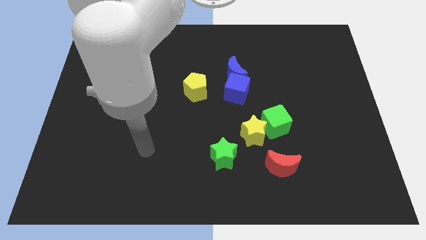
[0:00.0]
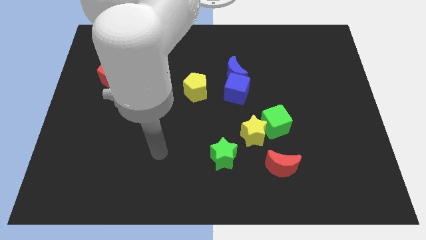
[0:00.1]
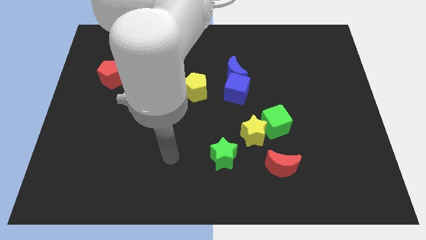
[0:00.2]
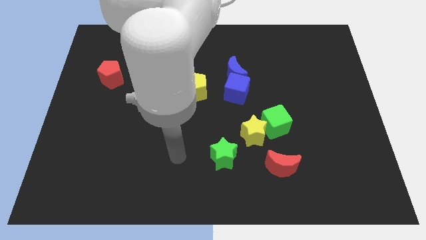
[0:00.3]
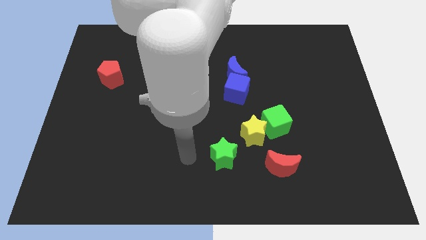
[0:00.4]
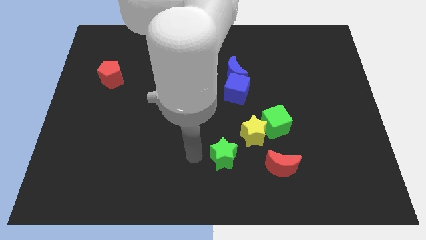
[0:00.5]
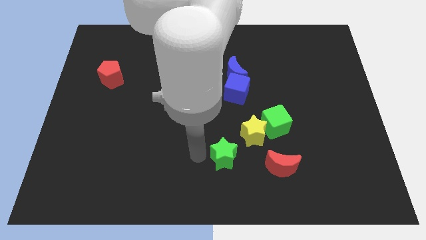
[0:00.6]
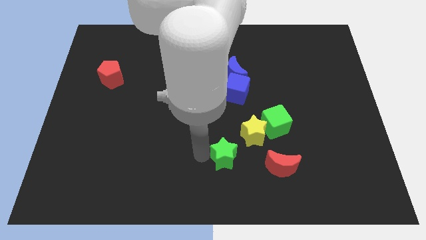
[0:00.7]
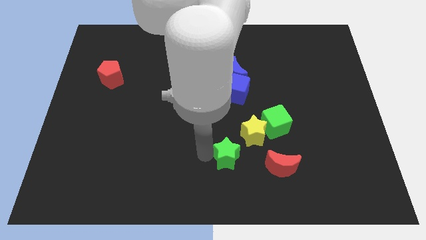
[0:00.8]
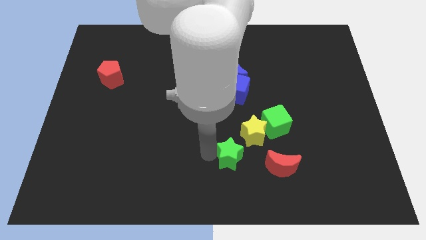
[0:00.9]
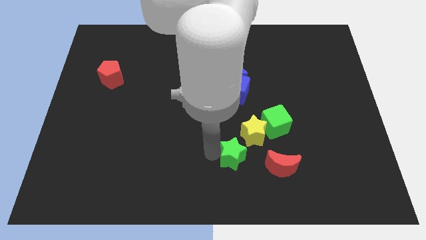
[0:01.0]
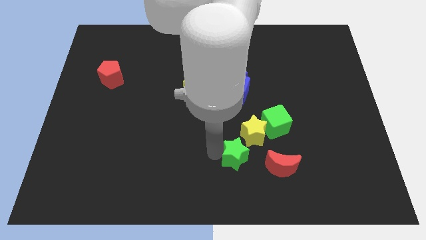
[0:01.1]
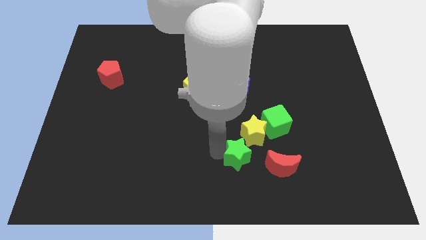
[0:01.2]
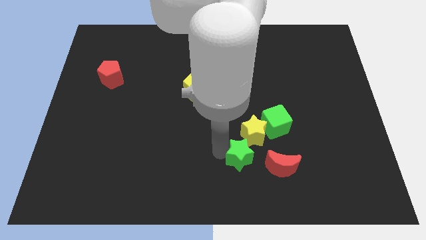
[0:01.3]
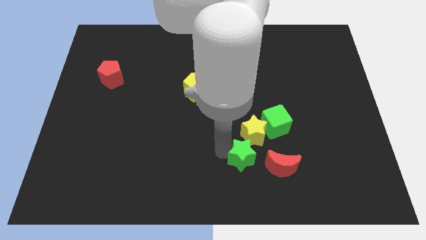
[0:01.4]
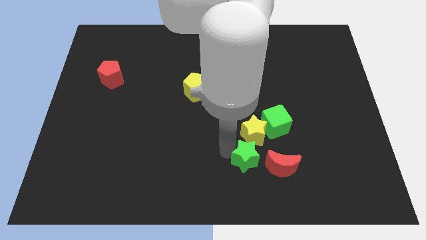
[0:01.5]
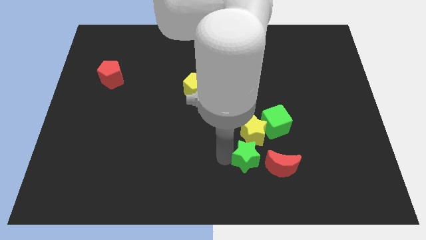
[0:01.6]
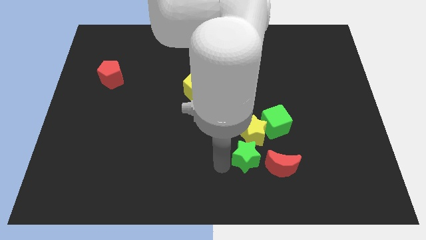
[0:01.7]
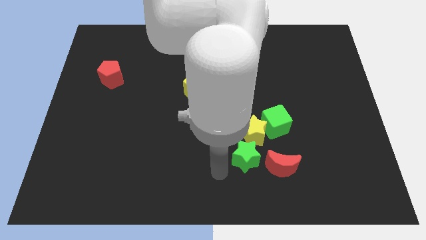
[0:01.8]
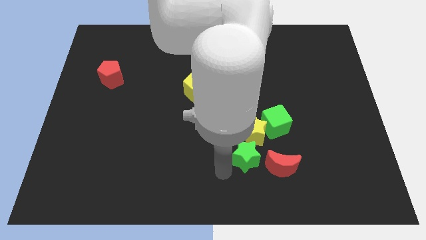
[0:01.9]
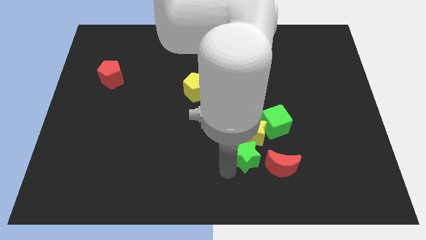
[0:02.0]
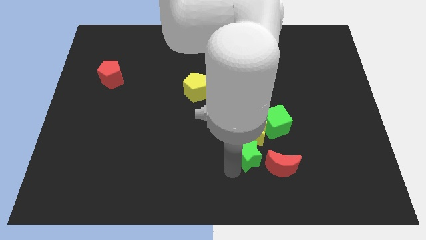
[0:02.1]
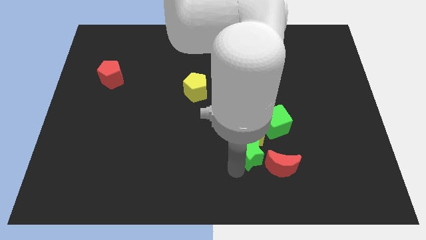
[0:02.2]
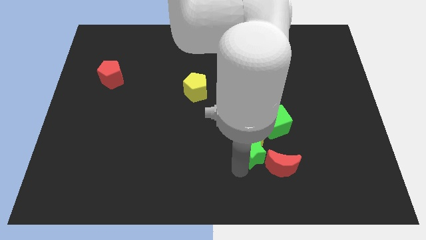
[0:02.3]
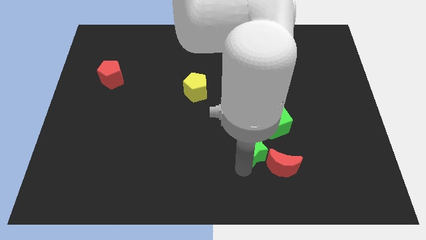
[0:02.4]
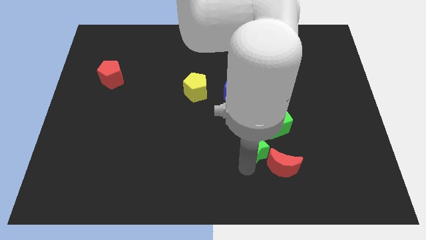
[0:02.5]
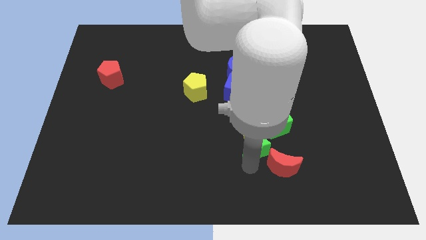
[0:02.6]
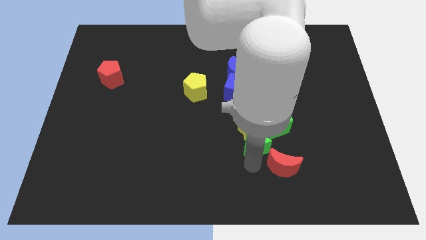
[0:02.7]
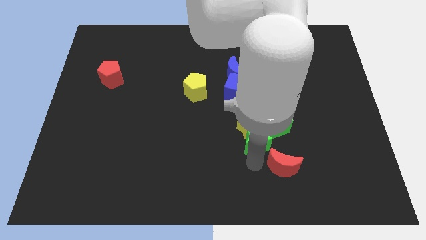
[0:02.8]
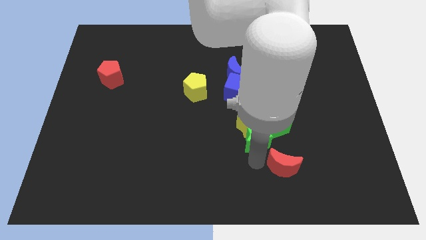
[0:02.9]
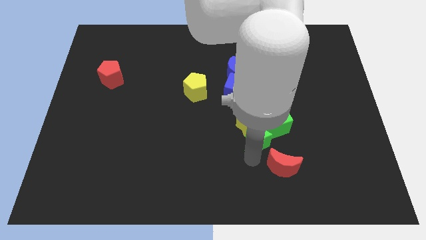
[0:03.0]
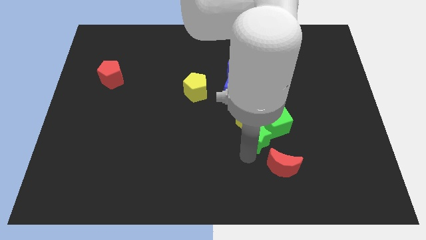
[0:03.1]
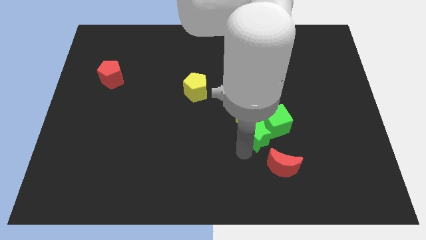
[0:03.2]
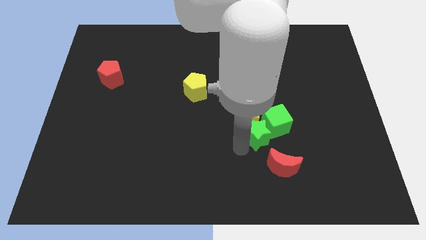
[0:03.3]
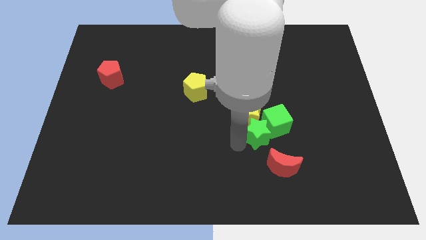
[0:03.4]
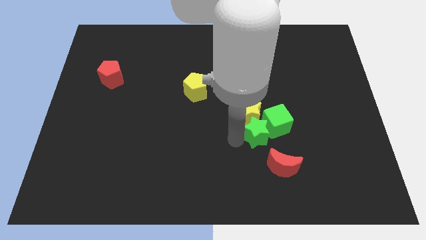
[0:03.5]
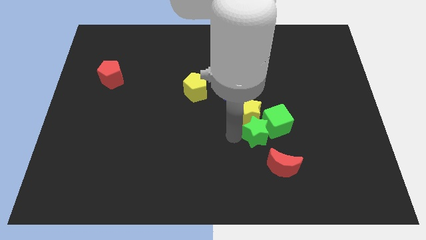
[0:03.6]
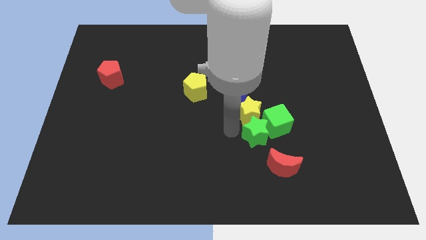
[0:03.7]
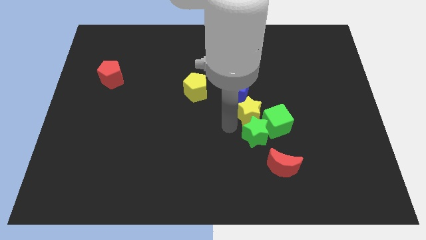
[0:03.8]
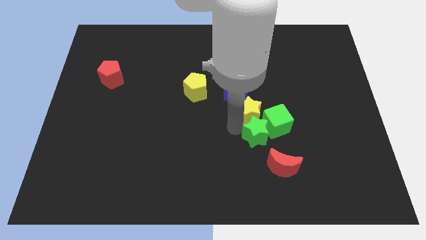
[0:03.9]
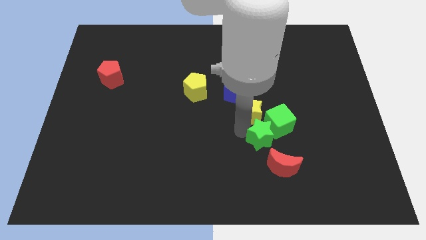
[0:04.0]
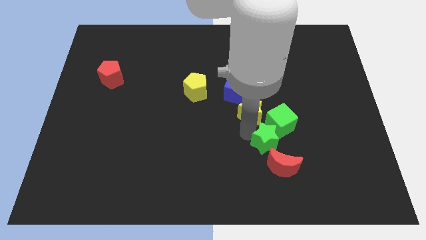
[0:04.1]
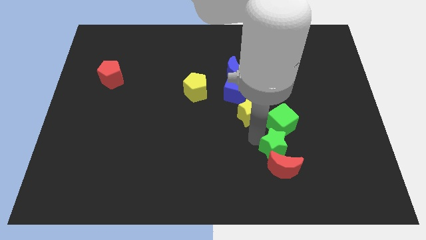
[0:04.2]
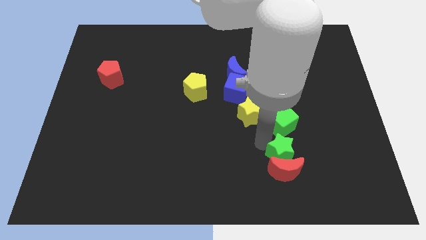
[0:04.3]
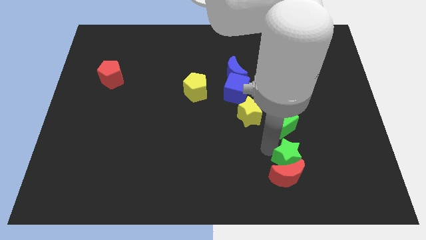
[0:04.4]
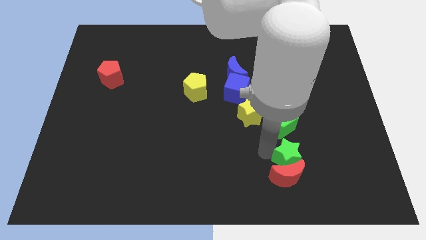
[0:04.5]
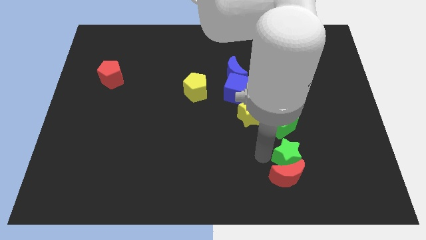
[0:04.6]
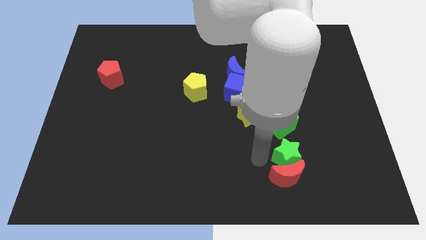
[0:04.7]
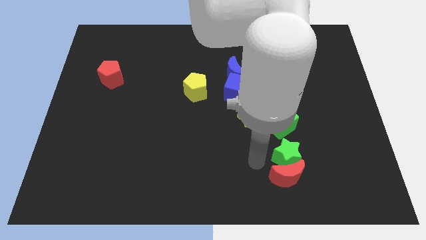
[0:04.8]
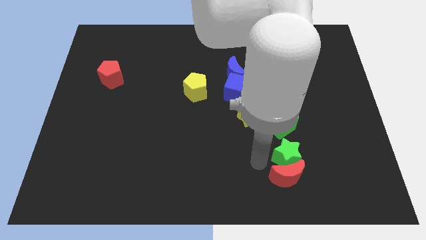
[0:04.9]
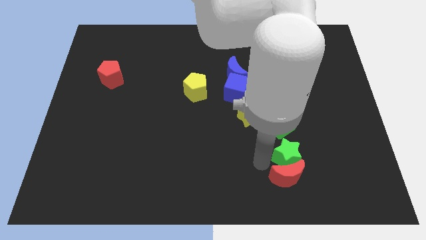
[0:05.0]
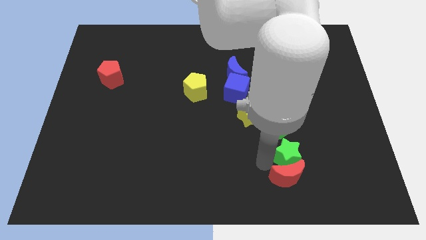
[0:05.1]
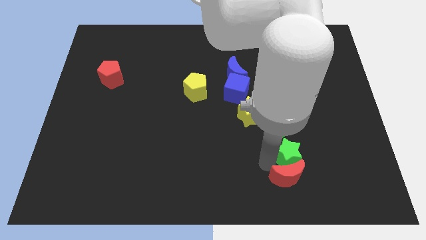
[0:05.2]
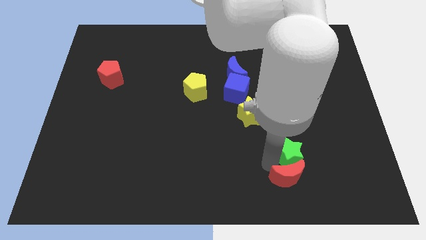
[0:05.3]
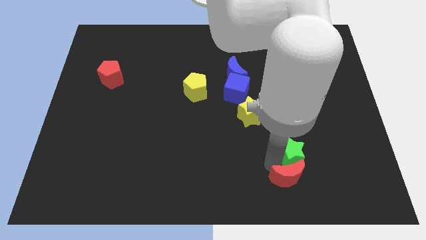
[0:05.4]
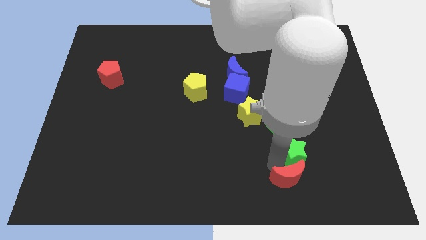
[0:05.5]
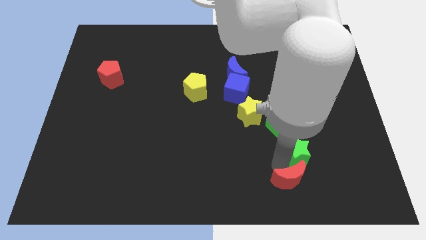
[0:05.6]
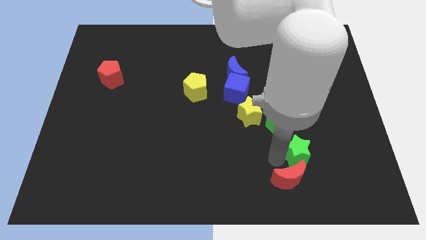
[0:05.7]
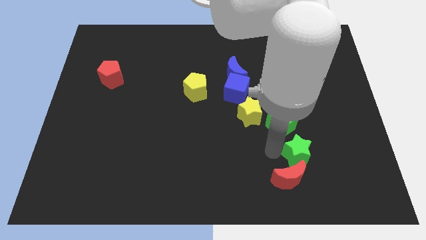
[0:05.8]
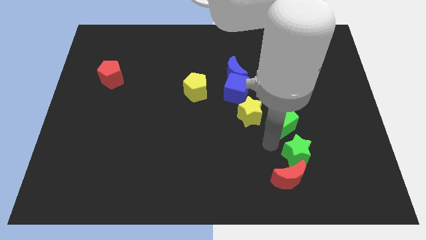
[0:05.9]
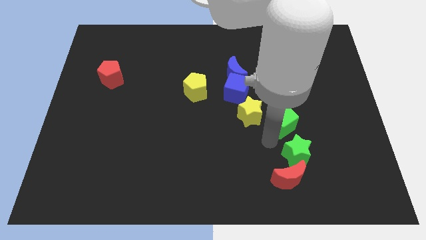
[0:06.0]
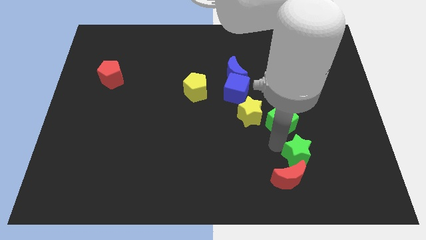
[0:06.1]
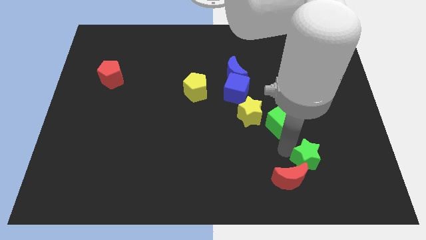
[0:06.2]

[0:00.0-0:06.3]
slide the green star right of the red moon

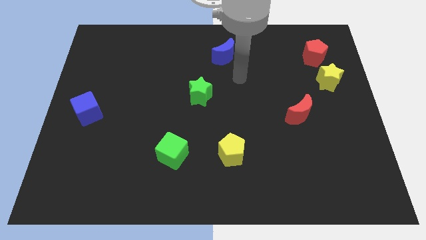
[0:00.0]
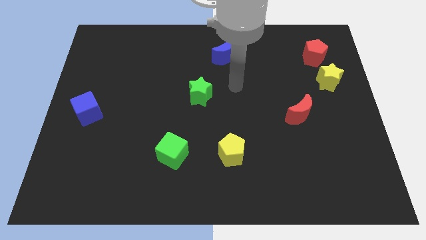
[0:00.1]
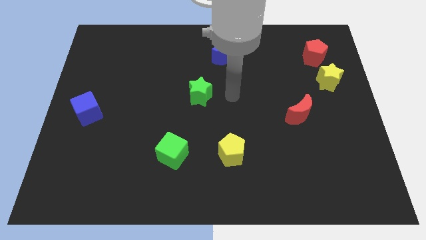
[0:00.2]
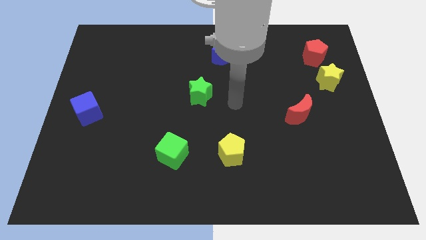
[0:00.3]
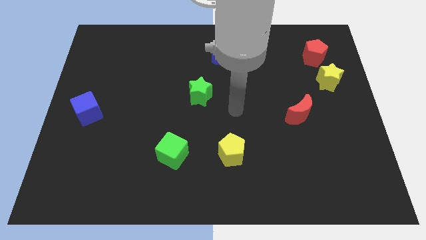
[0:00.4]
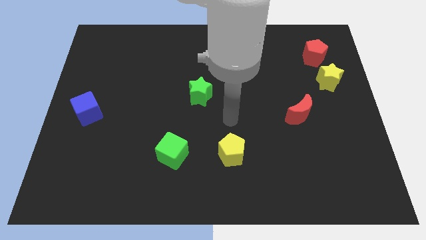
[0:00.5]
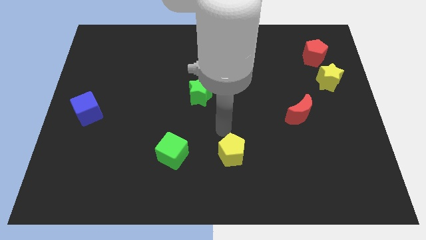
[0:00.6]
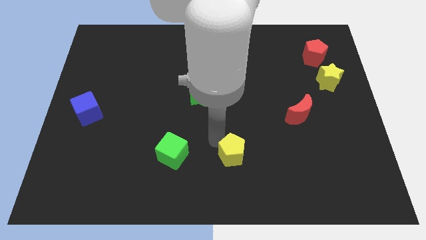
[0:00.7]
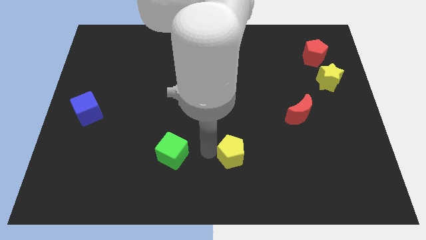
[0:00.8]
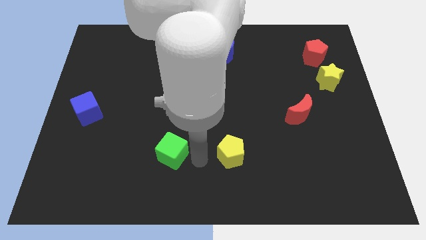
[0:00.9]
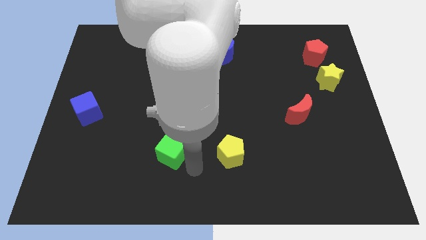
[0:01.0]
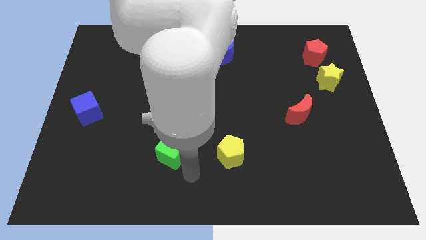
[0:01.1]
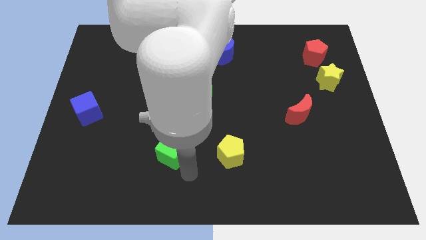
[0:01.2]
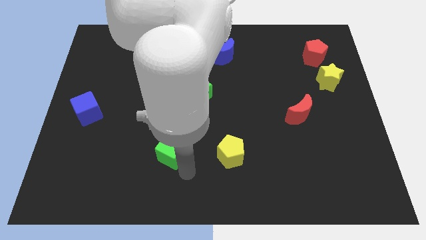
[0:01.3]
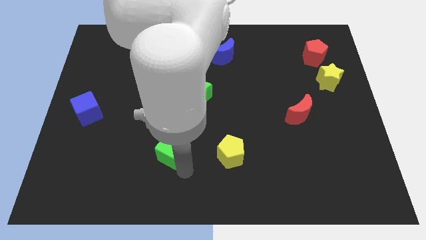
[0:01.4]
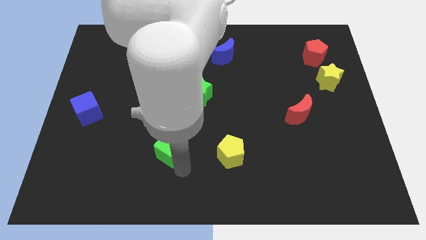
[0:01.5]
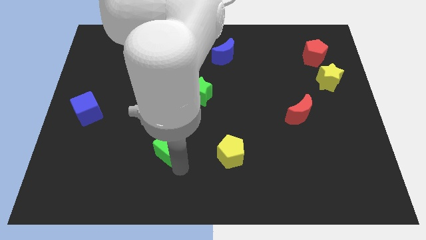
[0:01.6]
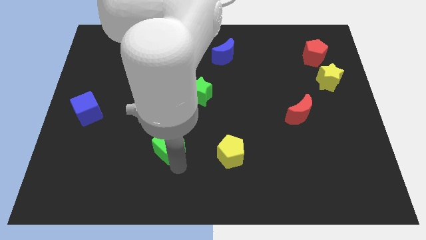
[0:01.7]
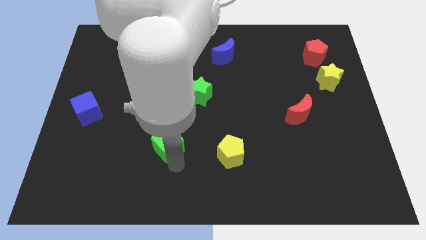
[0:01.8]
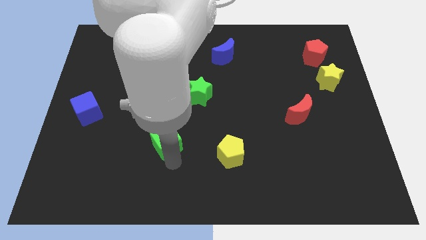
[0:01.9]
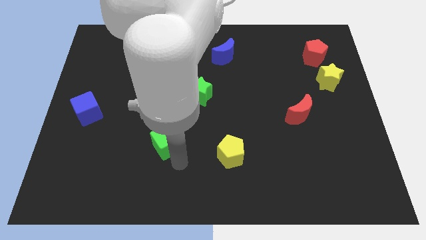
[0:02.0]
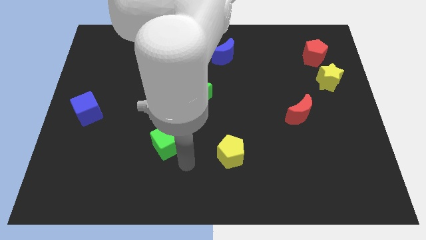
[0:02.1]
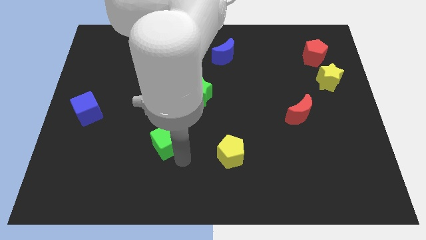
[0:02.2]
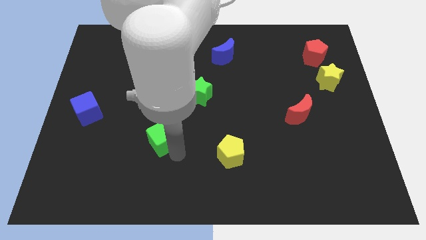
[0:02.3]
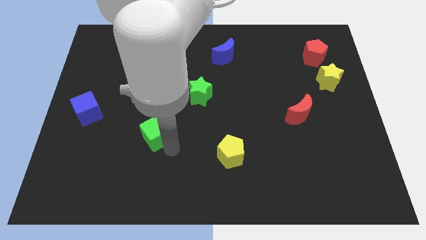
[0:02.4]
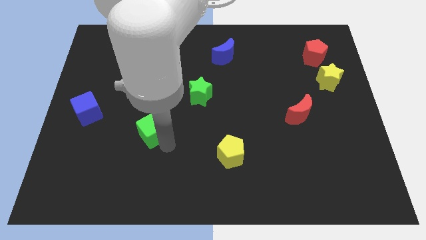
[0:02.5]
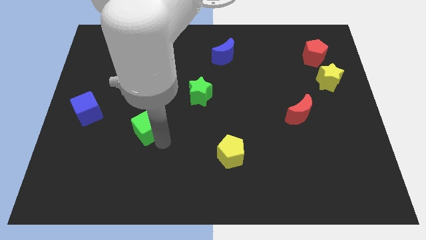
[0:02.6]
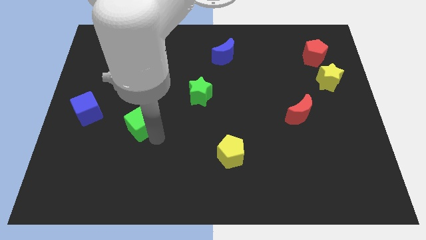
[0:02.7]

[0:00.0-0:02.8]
push the green cube right of the blue cube
